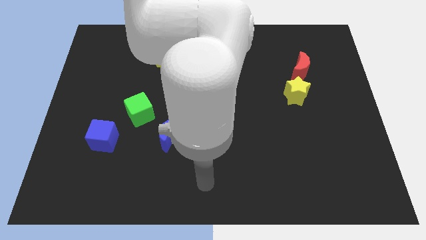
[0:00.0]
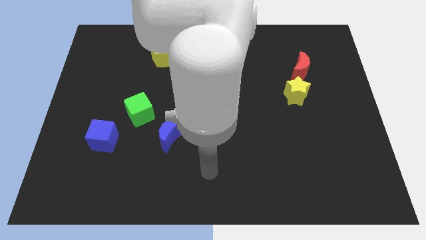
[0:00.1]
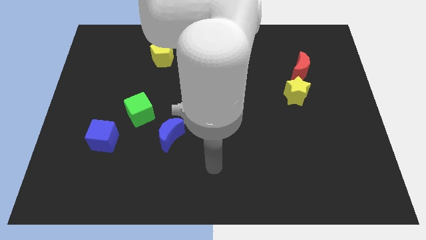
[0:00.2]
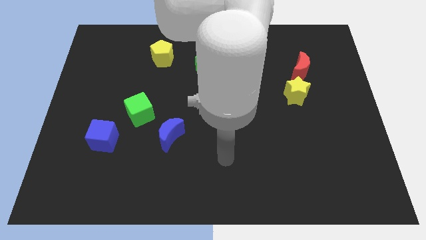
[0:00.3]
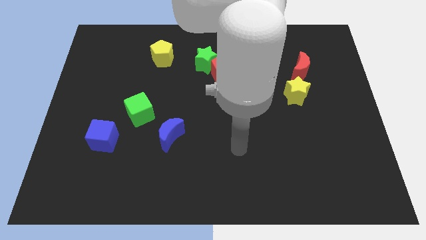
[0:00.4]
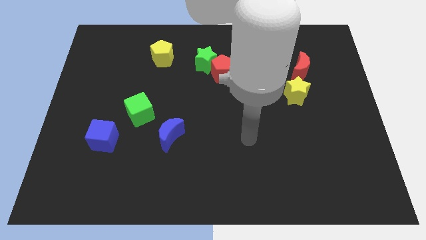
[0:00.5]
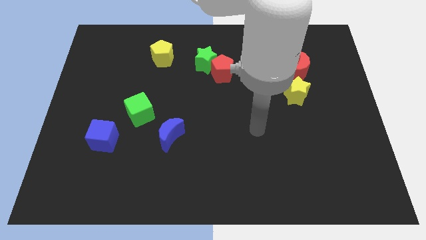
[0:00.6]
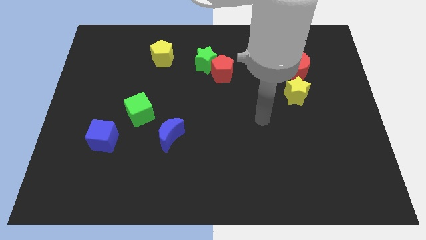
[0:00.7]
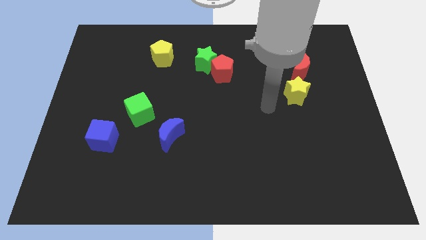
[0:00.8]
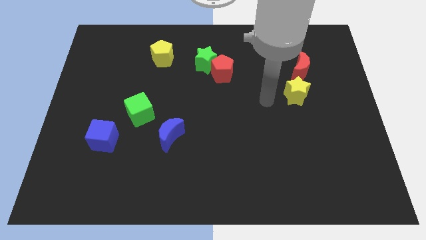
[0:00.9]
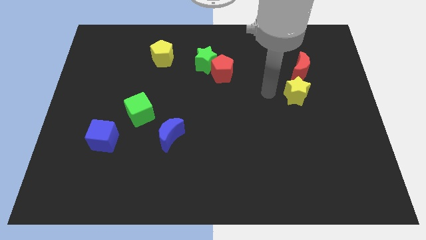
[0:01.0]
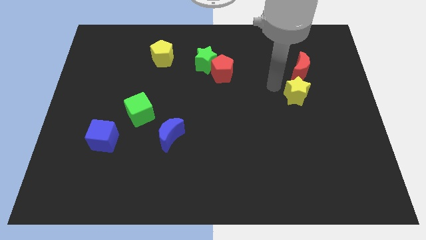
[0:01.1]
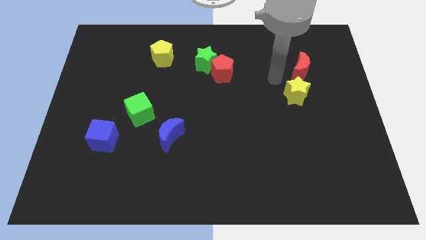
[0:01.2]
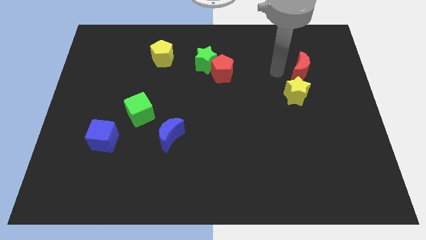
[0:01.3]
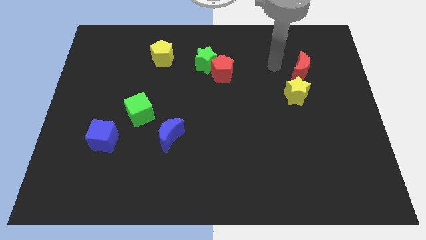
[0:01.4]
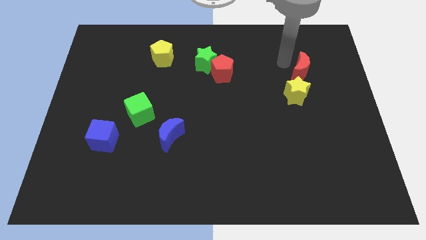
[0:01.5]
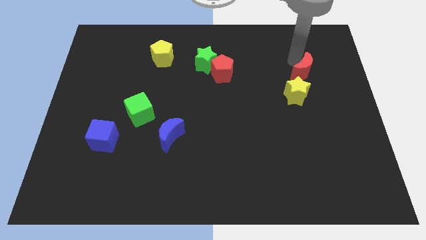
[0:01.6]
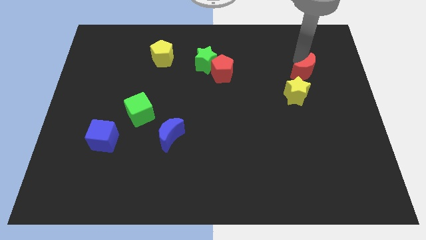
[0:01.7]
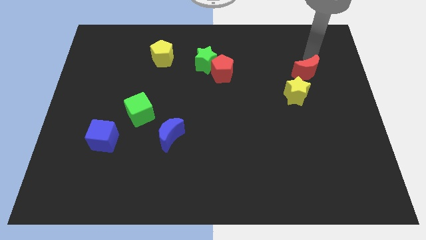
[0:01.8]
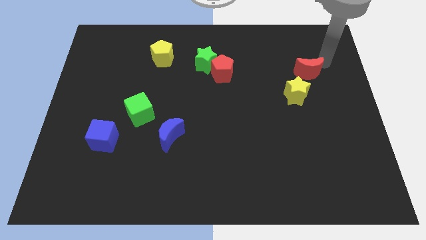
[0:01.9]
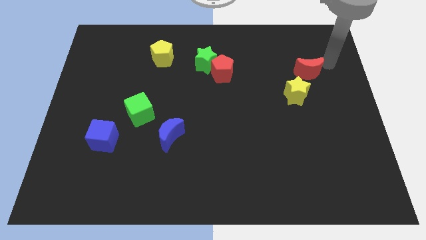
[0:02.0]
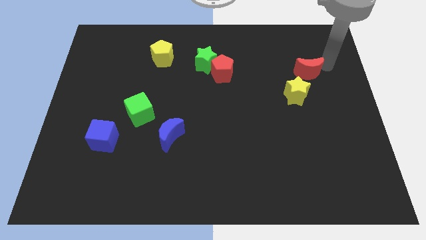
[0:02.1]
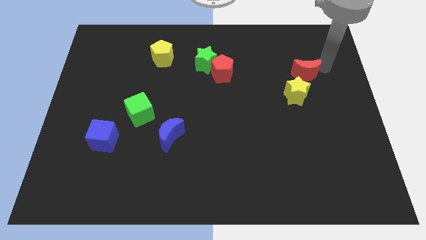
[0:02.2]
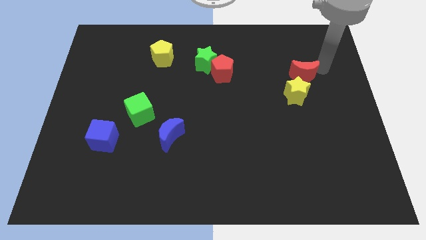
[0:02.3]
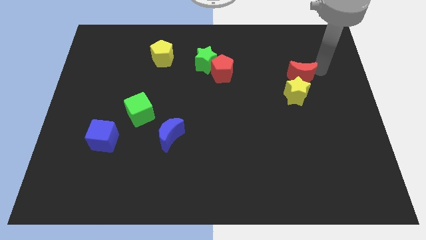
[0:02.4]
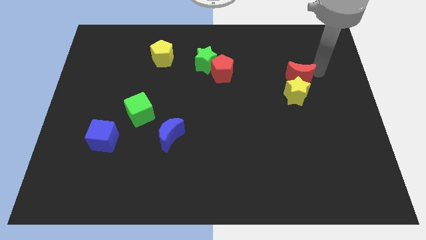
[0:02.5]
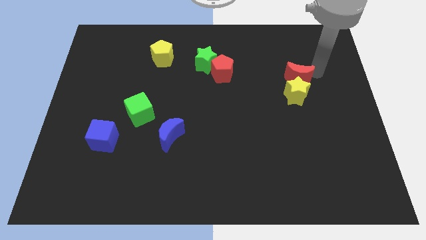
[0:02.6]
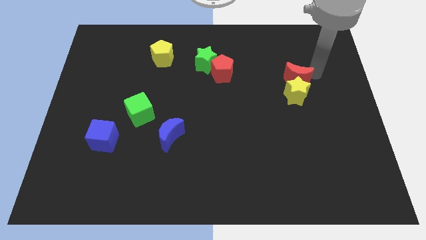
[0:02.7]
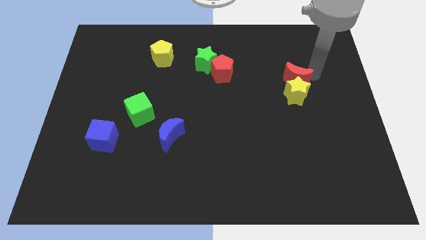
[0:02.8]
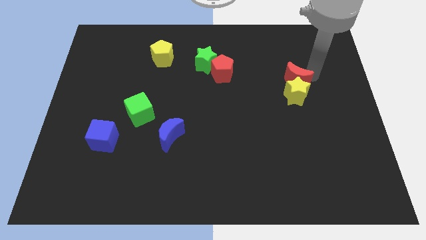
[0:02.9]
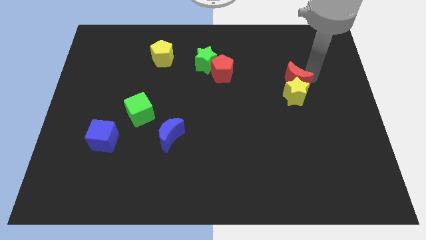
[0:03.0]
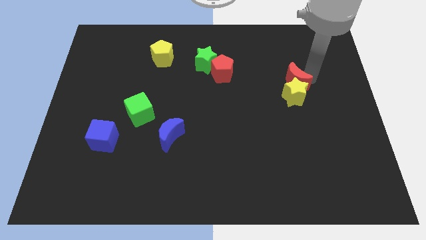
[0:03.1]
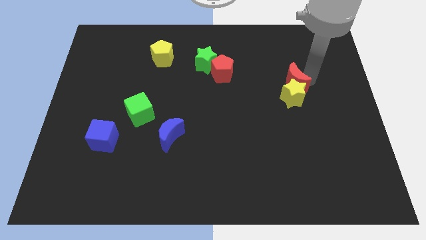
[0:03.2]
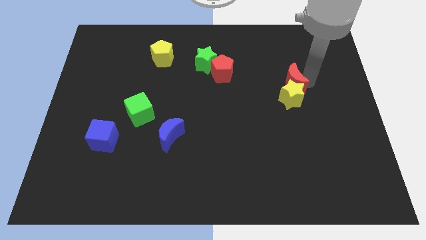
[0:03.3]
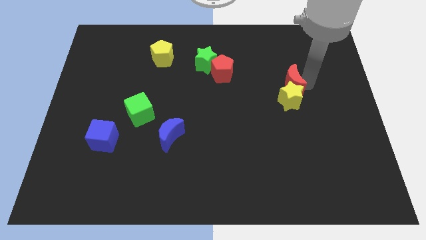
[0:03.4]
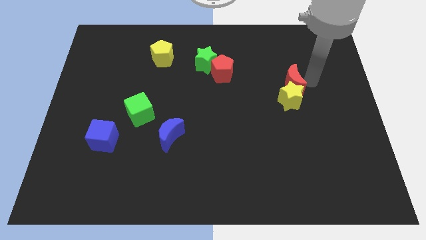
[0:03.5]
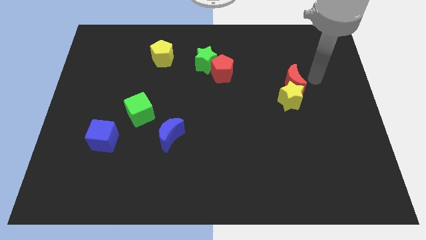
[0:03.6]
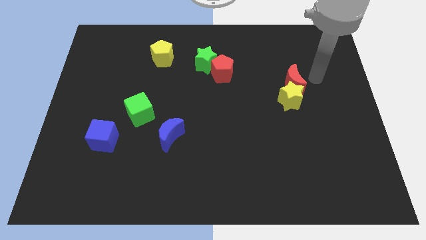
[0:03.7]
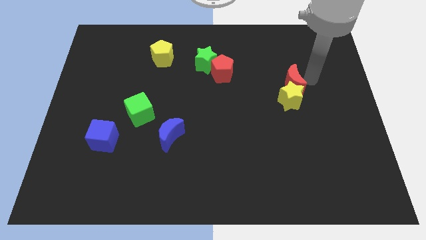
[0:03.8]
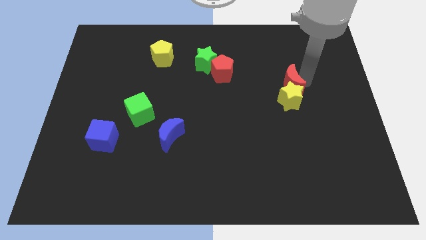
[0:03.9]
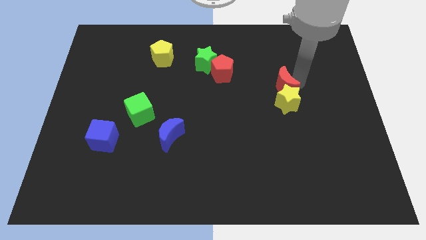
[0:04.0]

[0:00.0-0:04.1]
slightly push the red moon down and then left

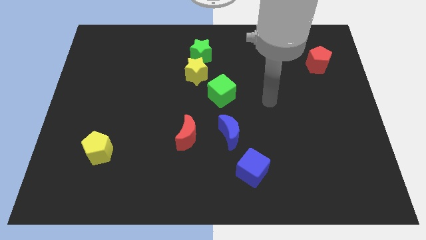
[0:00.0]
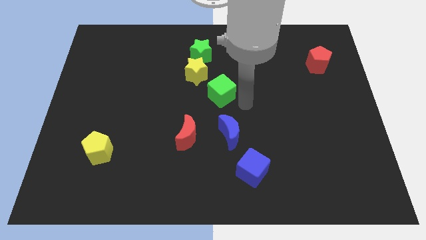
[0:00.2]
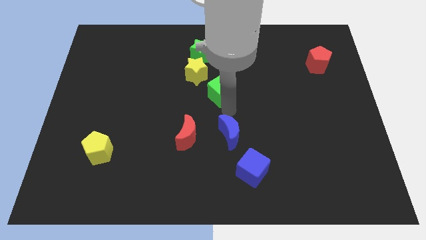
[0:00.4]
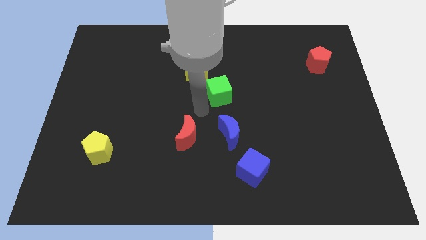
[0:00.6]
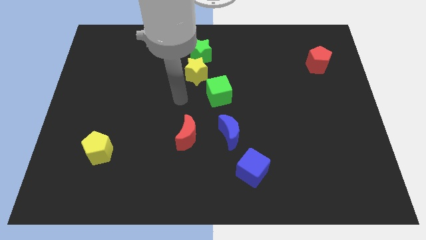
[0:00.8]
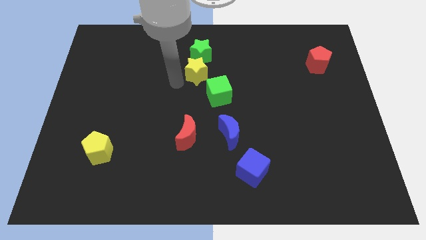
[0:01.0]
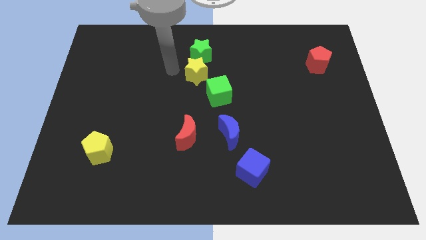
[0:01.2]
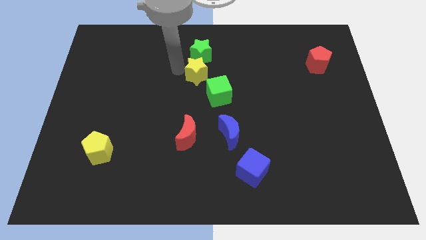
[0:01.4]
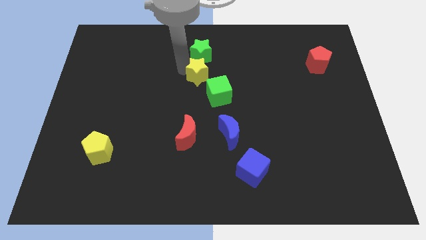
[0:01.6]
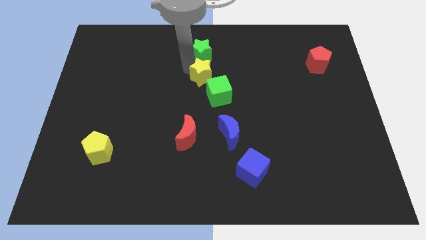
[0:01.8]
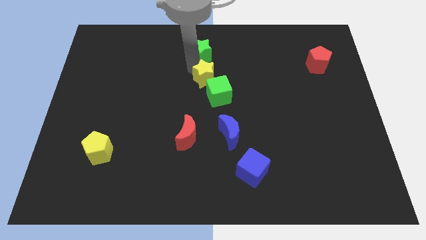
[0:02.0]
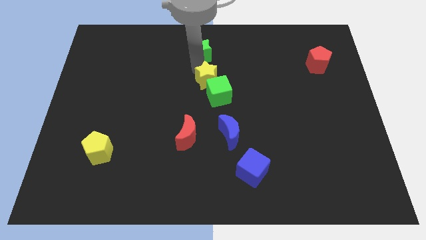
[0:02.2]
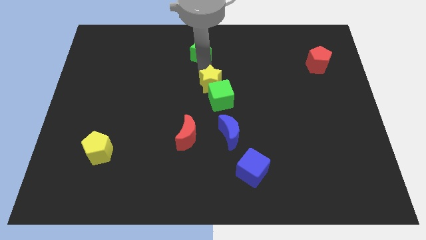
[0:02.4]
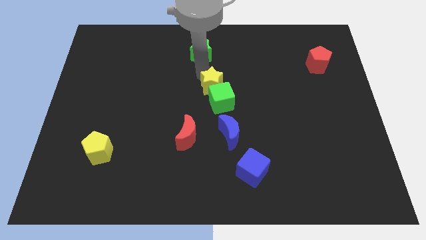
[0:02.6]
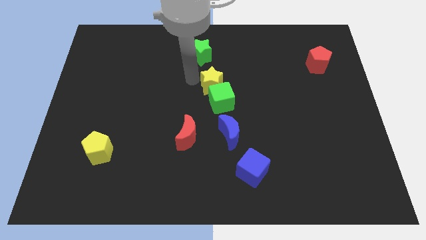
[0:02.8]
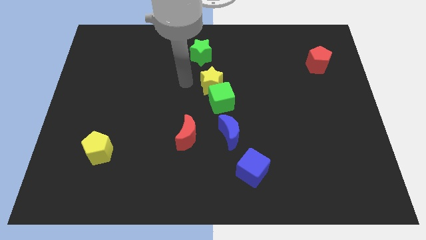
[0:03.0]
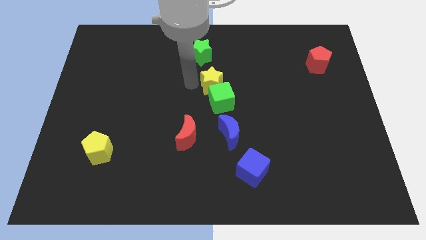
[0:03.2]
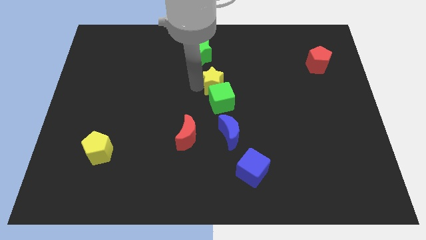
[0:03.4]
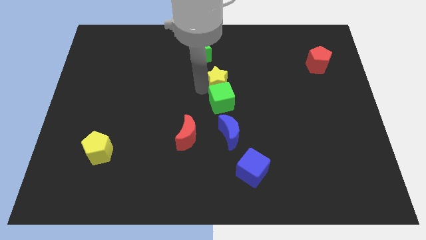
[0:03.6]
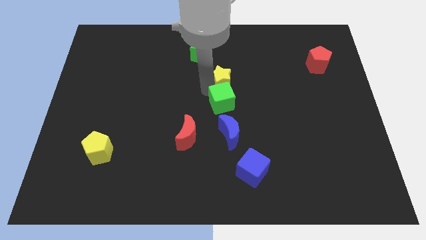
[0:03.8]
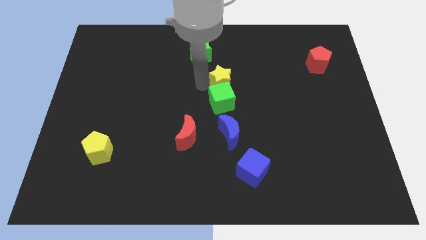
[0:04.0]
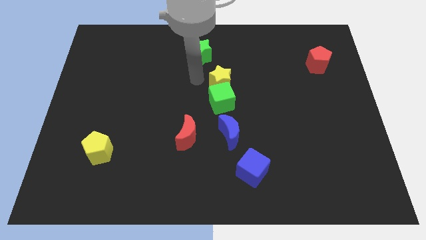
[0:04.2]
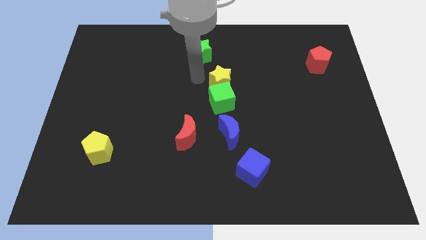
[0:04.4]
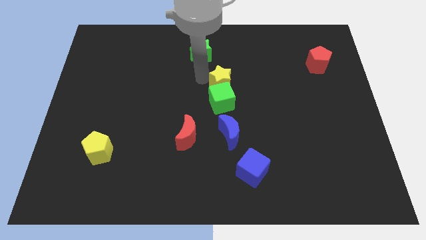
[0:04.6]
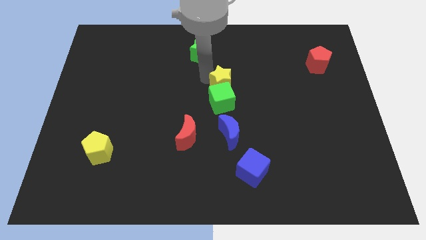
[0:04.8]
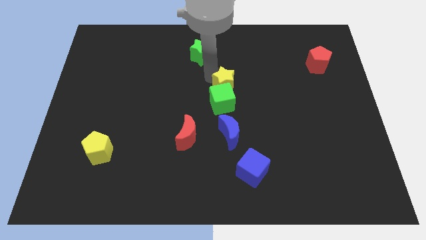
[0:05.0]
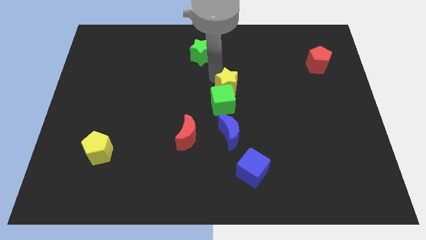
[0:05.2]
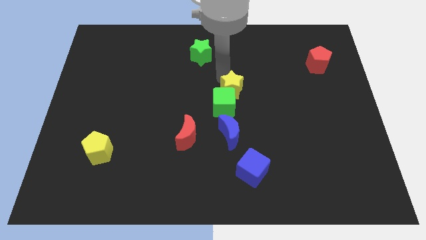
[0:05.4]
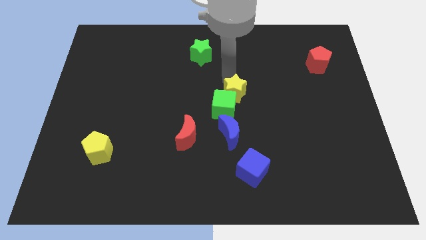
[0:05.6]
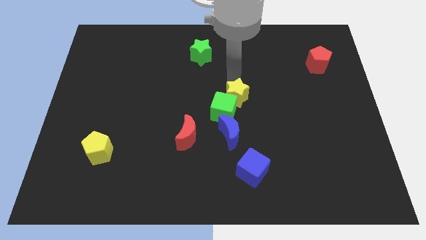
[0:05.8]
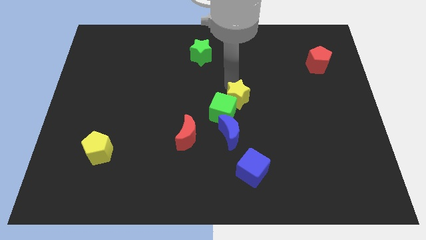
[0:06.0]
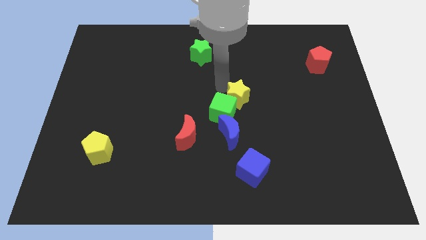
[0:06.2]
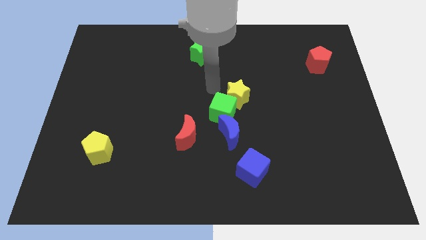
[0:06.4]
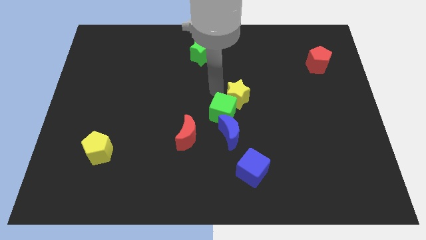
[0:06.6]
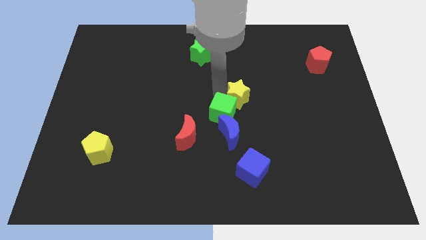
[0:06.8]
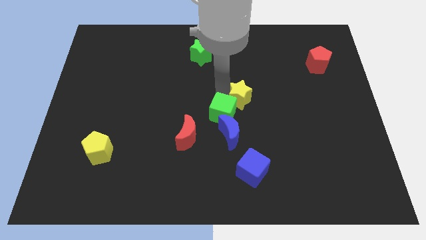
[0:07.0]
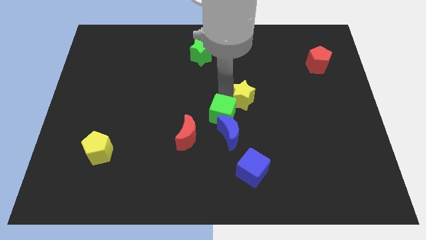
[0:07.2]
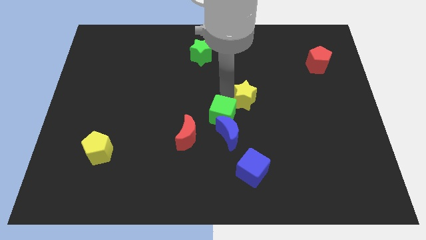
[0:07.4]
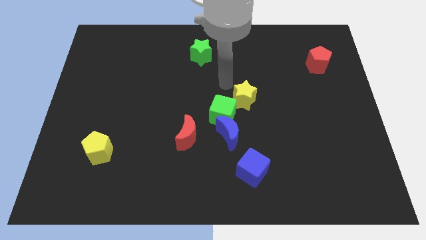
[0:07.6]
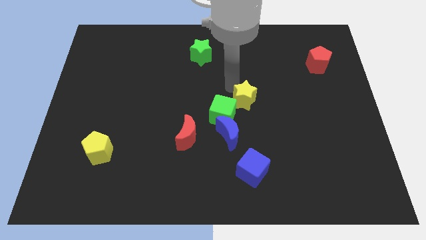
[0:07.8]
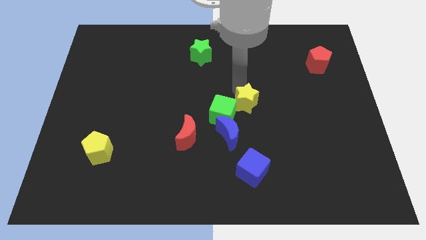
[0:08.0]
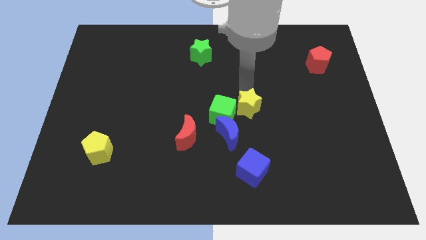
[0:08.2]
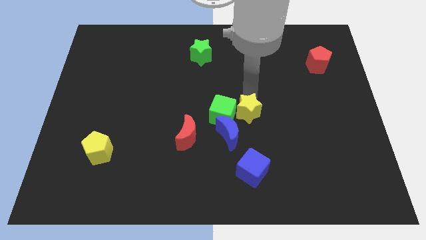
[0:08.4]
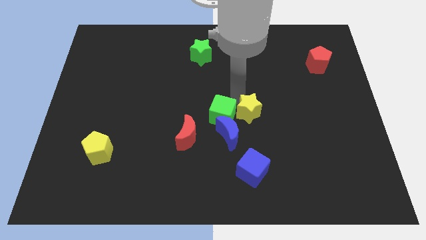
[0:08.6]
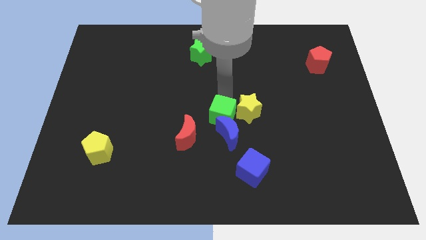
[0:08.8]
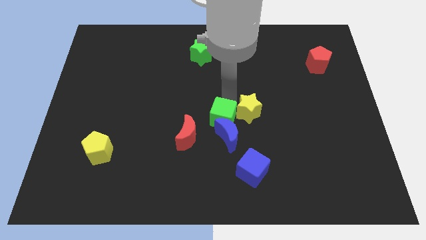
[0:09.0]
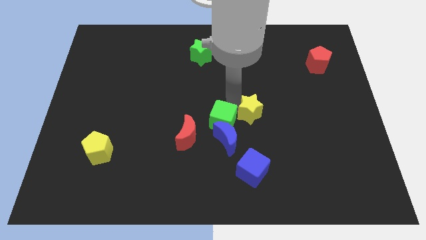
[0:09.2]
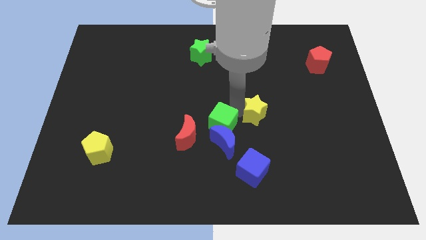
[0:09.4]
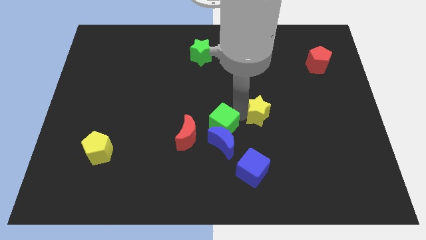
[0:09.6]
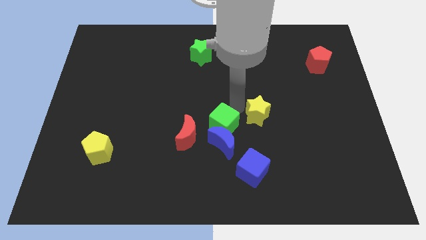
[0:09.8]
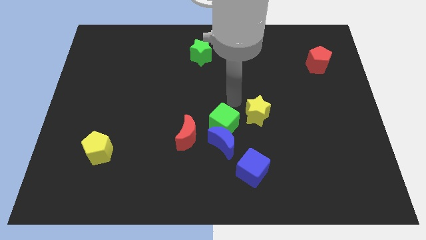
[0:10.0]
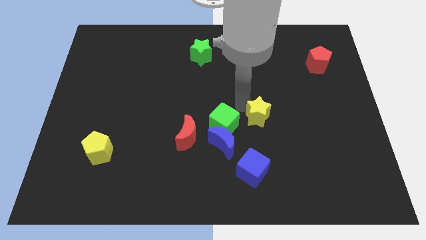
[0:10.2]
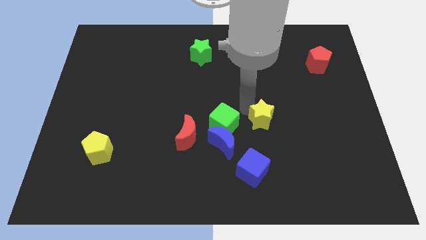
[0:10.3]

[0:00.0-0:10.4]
push the yellow star downwards and to the right diagonally
